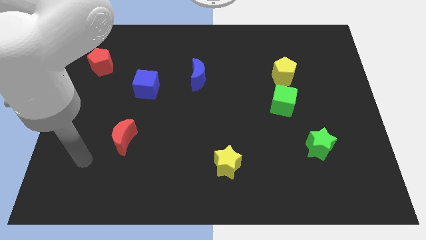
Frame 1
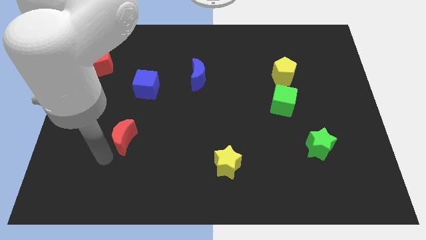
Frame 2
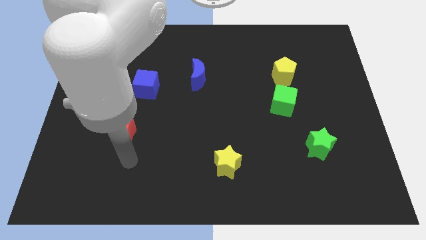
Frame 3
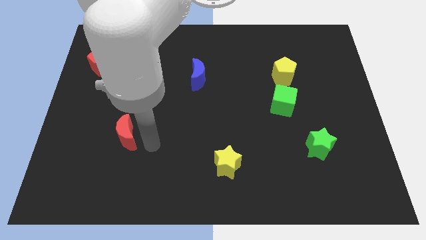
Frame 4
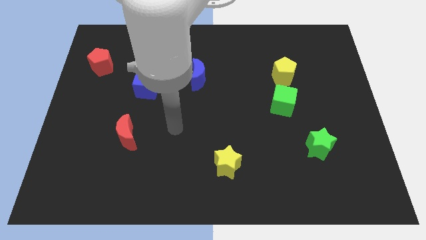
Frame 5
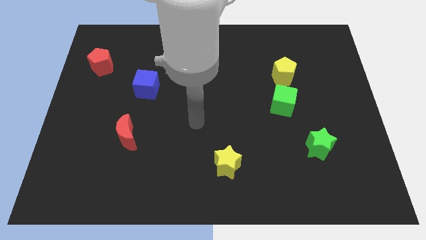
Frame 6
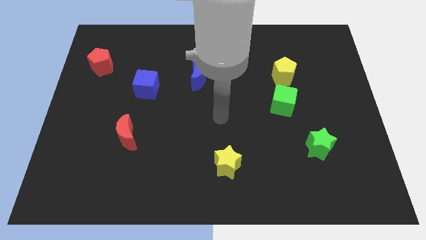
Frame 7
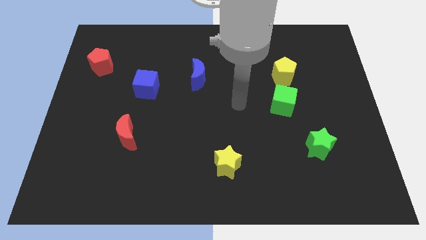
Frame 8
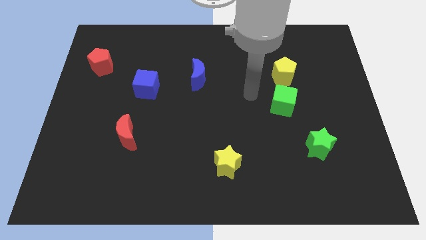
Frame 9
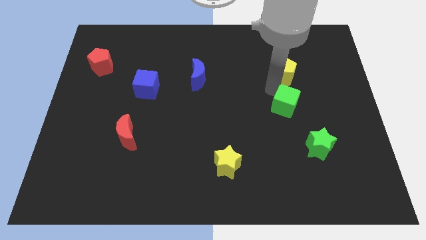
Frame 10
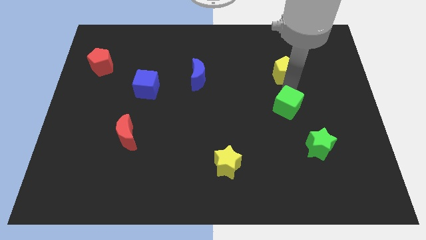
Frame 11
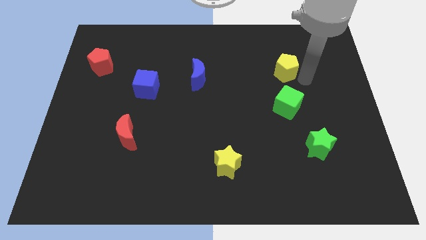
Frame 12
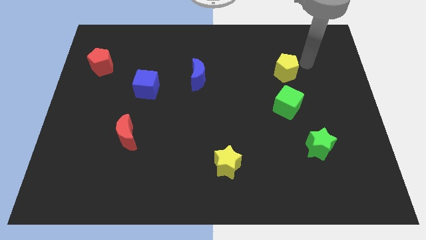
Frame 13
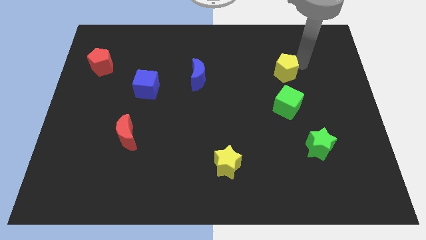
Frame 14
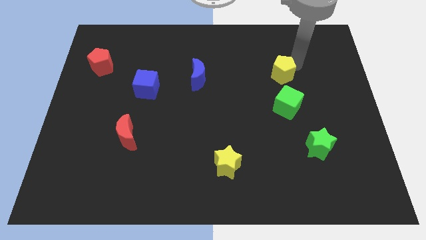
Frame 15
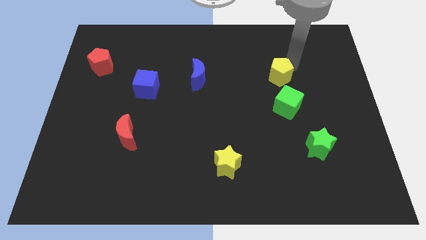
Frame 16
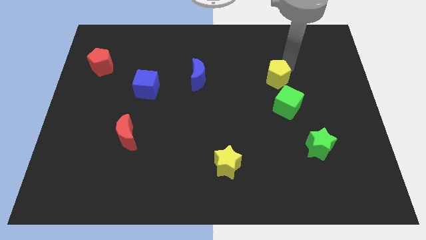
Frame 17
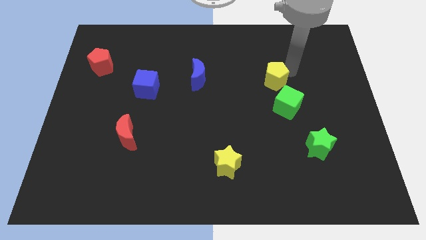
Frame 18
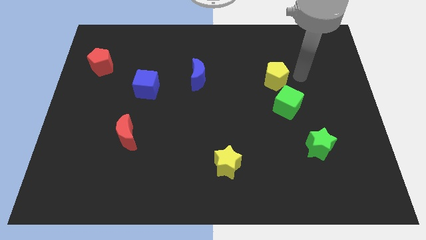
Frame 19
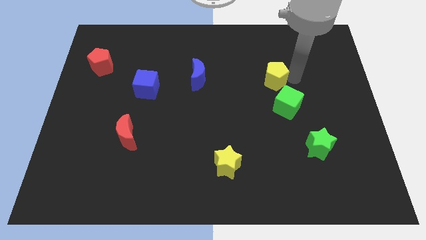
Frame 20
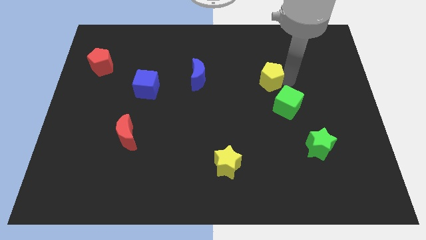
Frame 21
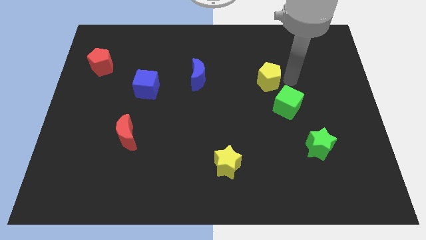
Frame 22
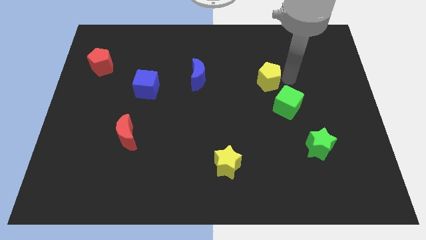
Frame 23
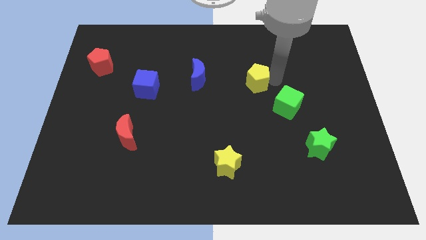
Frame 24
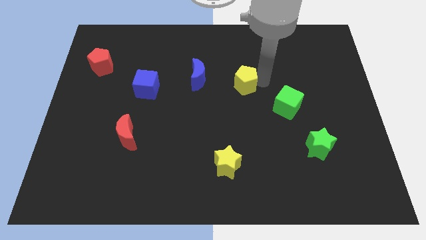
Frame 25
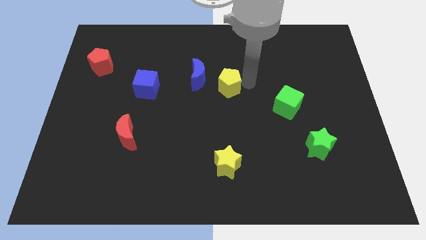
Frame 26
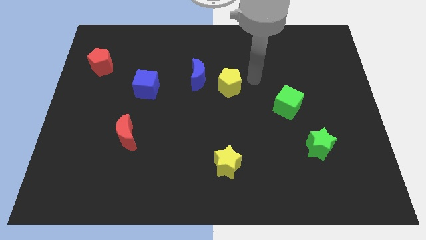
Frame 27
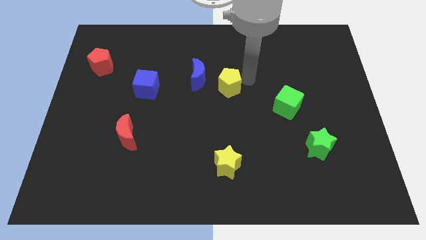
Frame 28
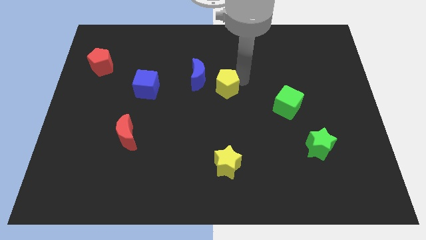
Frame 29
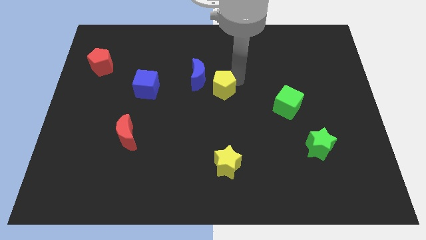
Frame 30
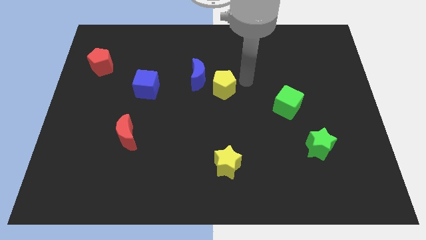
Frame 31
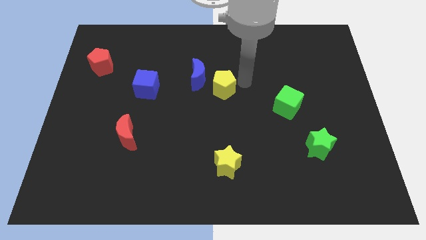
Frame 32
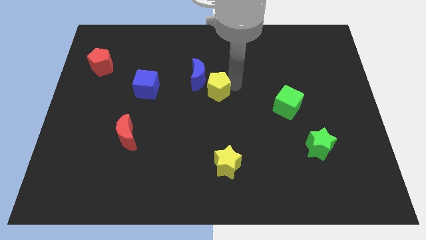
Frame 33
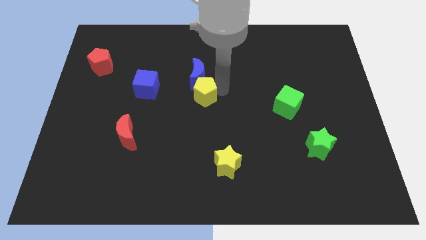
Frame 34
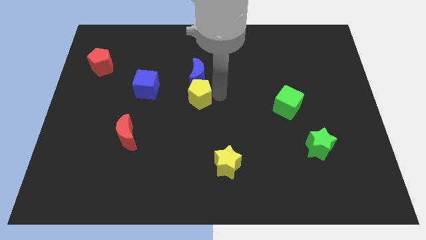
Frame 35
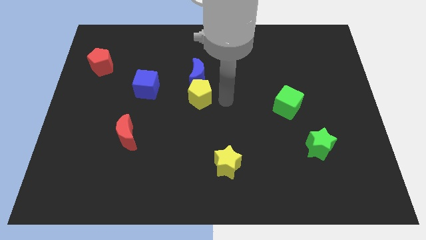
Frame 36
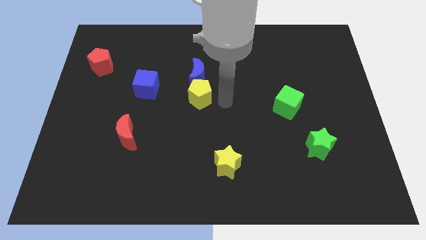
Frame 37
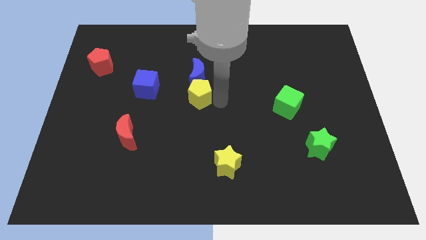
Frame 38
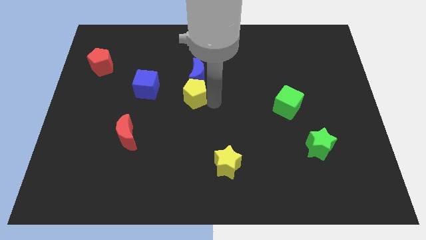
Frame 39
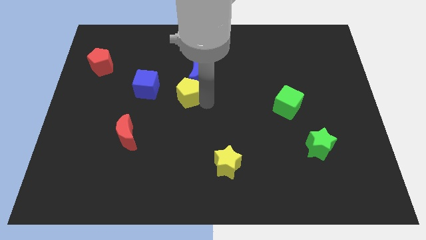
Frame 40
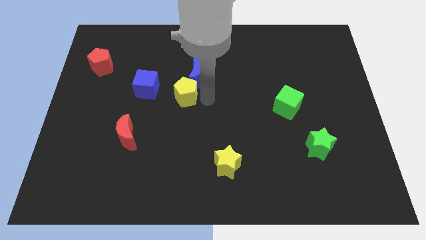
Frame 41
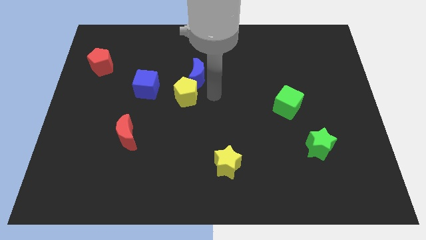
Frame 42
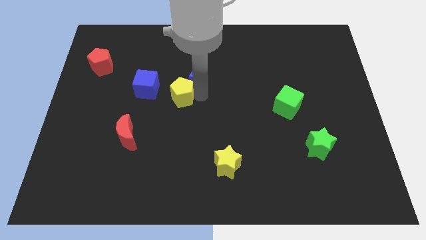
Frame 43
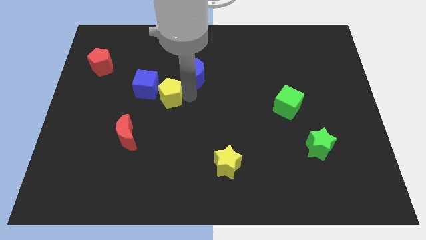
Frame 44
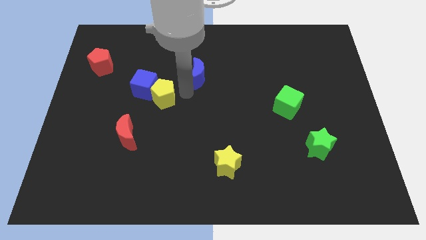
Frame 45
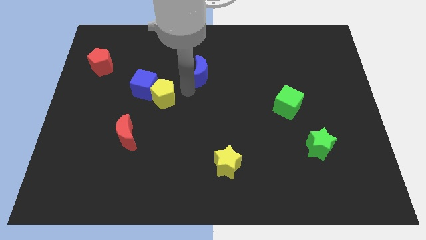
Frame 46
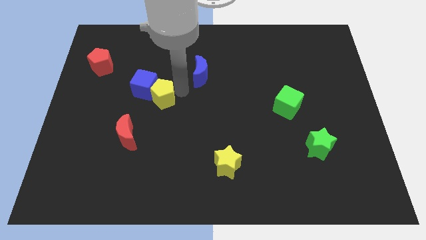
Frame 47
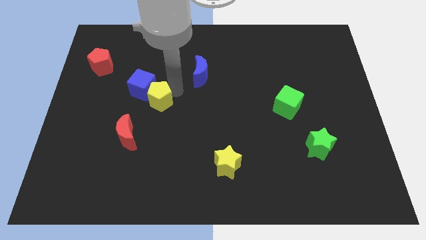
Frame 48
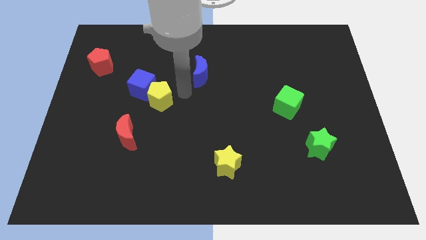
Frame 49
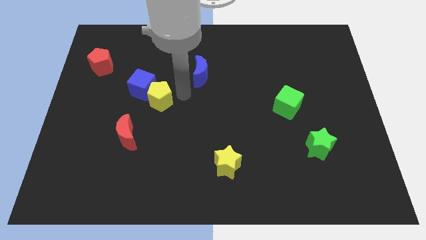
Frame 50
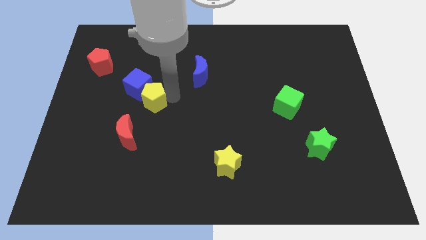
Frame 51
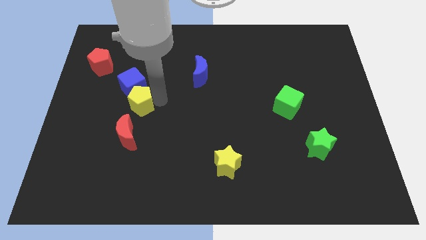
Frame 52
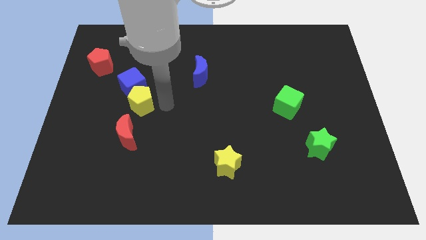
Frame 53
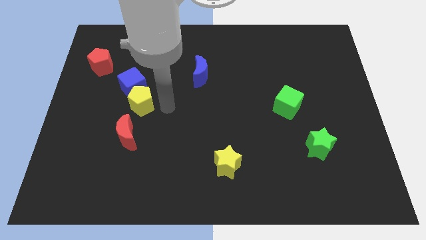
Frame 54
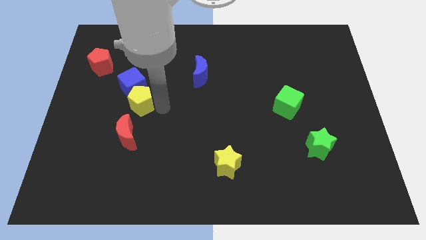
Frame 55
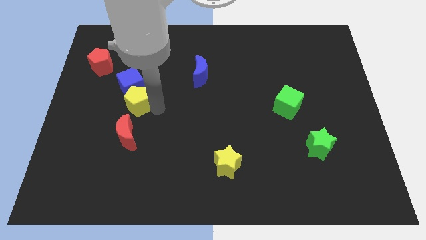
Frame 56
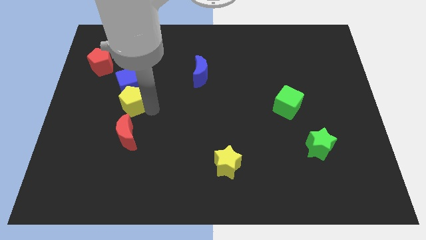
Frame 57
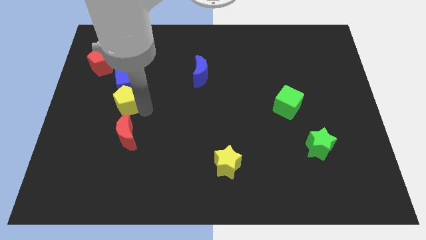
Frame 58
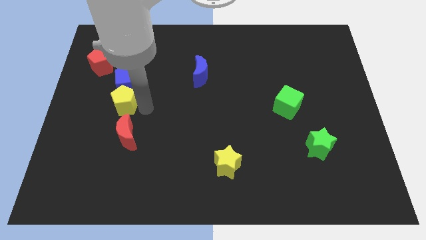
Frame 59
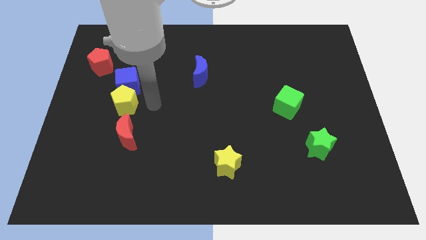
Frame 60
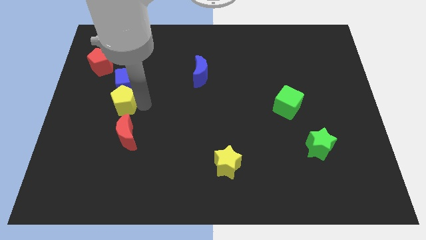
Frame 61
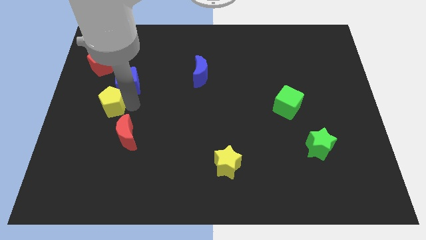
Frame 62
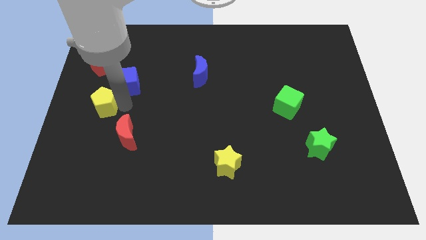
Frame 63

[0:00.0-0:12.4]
push the yellow pentagon to the left side
